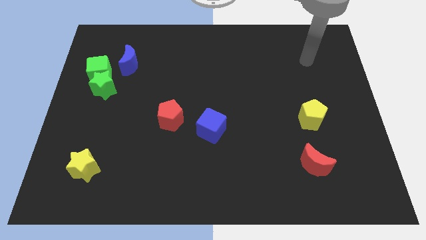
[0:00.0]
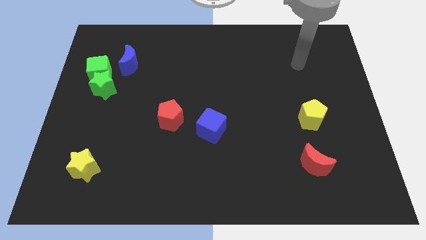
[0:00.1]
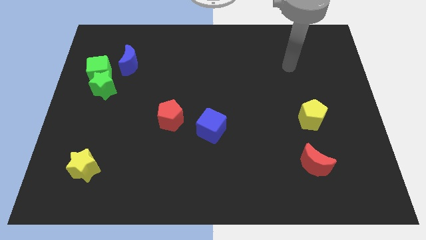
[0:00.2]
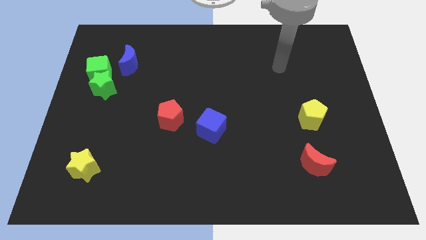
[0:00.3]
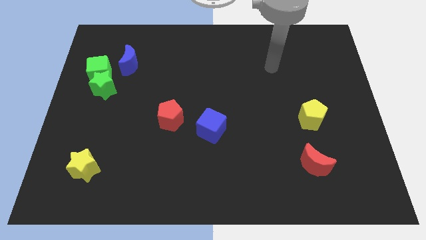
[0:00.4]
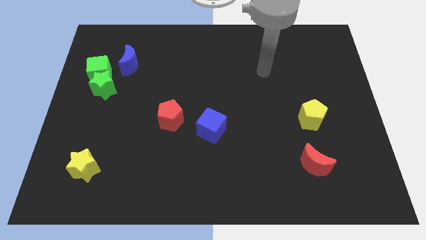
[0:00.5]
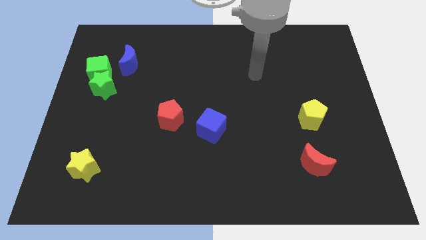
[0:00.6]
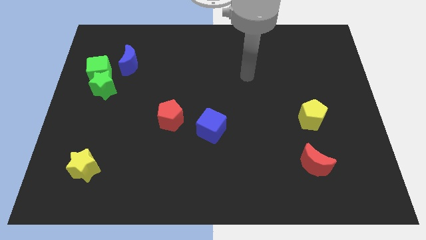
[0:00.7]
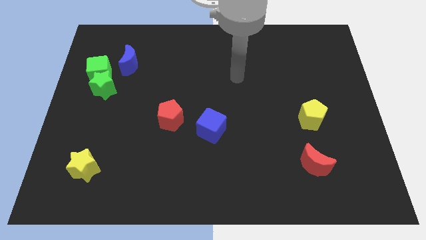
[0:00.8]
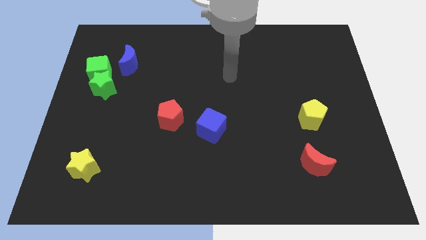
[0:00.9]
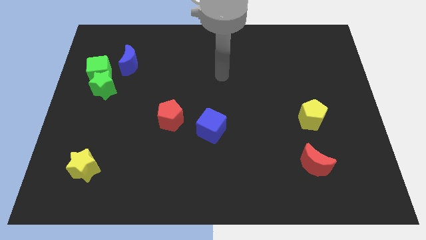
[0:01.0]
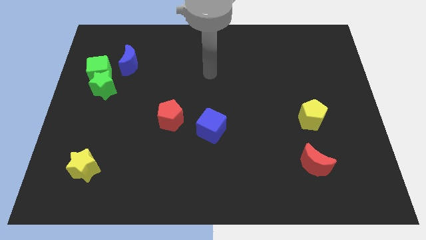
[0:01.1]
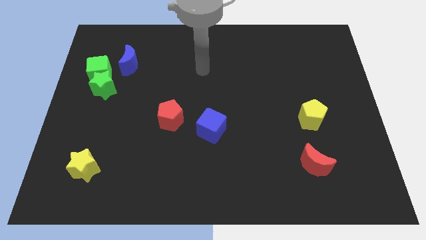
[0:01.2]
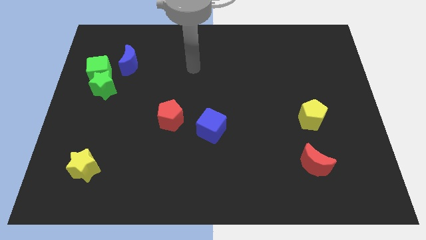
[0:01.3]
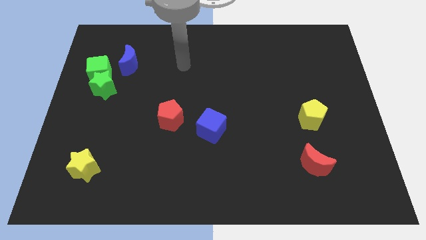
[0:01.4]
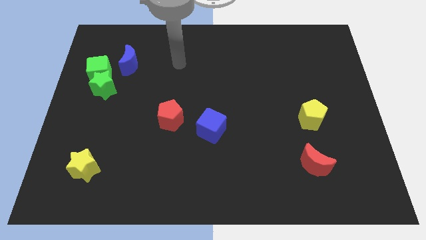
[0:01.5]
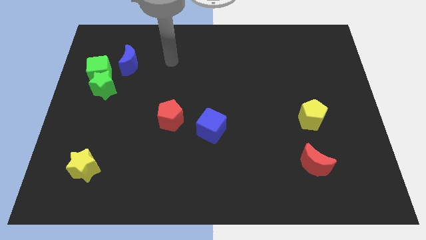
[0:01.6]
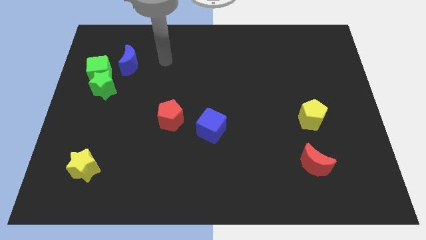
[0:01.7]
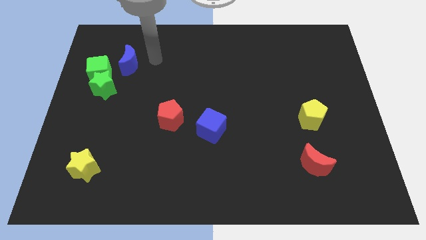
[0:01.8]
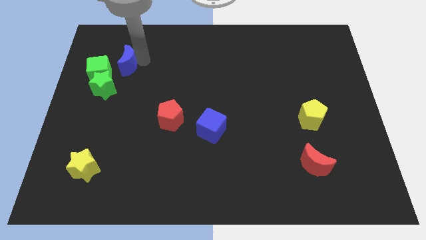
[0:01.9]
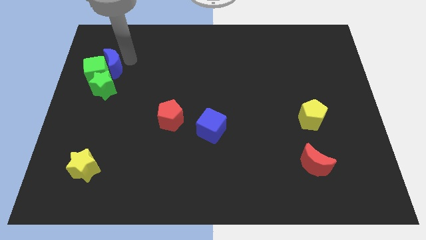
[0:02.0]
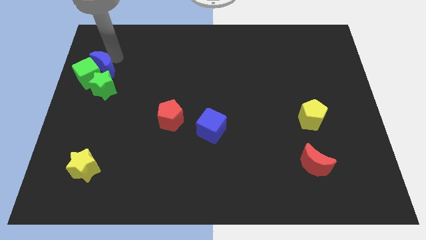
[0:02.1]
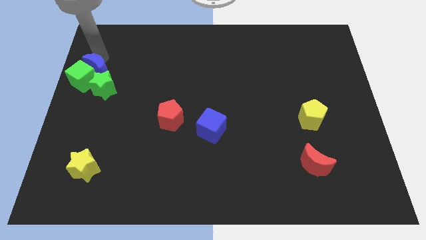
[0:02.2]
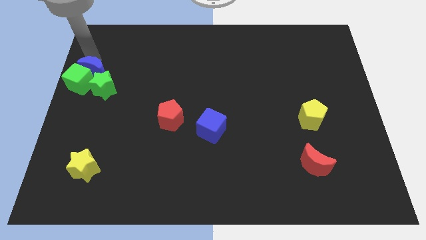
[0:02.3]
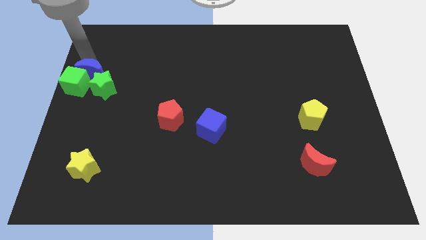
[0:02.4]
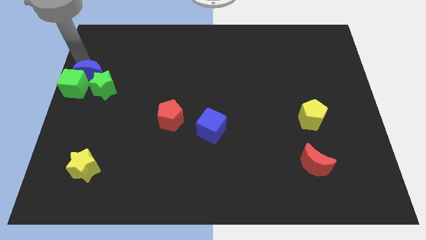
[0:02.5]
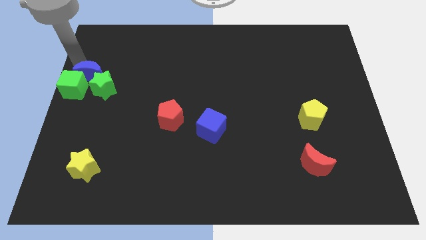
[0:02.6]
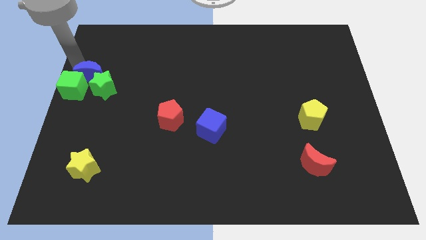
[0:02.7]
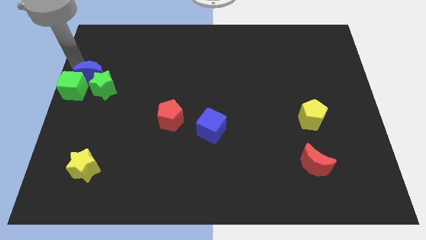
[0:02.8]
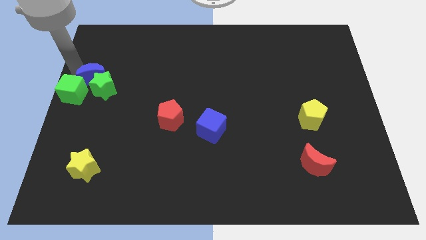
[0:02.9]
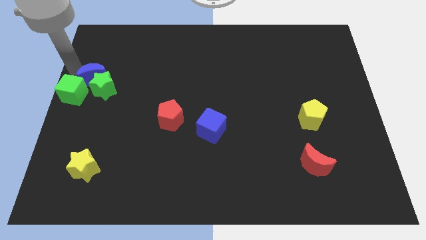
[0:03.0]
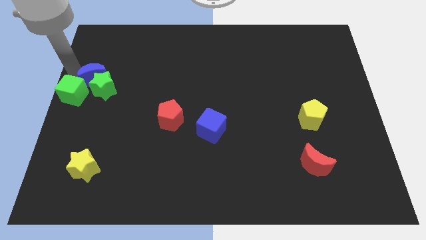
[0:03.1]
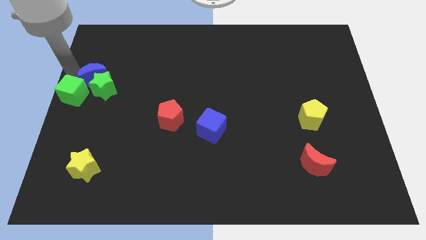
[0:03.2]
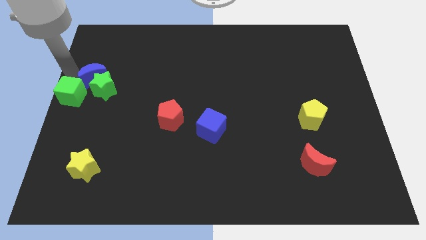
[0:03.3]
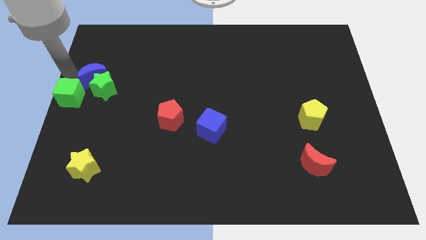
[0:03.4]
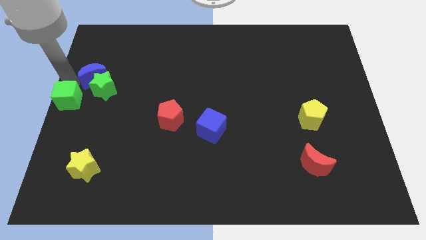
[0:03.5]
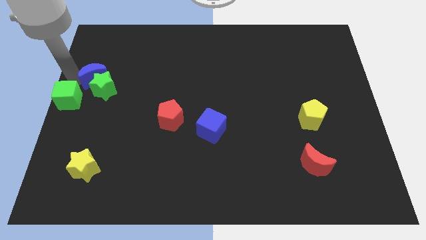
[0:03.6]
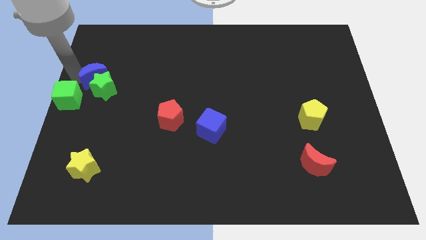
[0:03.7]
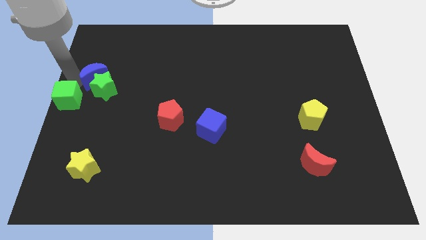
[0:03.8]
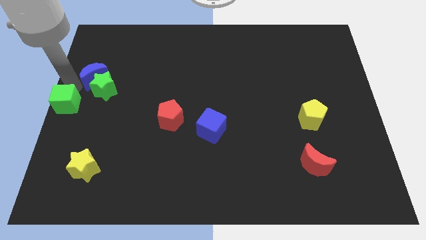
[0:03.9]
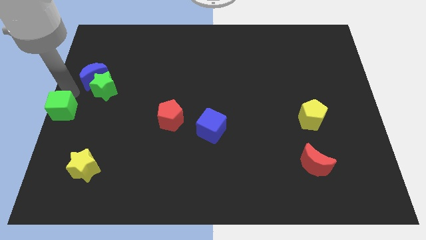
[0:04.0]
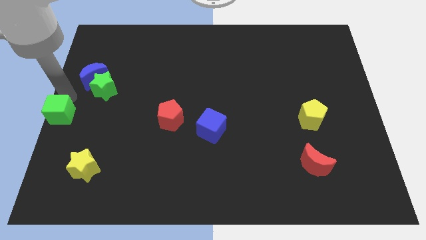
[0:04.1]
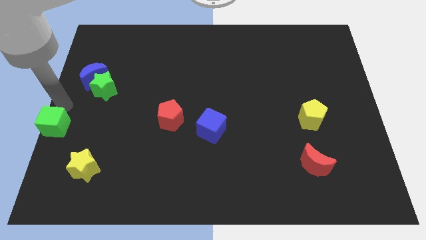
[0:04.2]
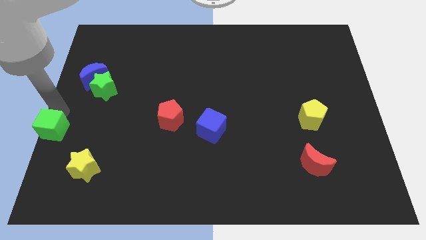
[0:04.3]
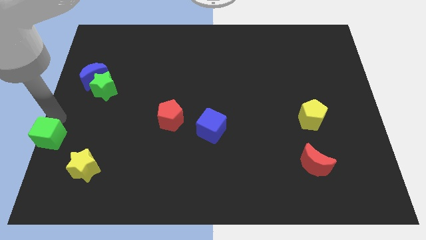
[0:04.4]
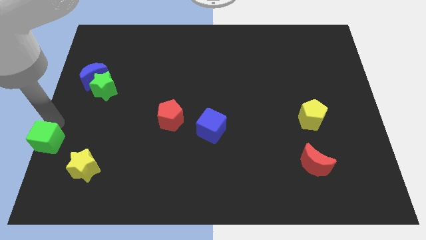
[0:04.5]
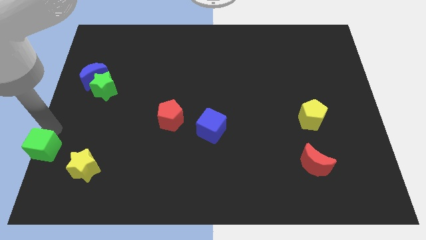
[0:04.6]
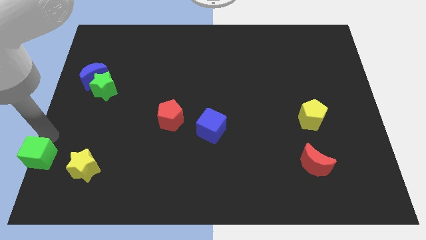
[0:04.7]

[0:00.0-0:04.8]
put the green cube to the lower left corner

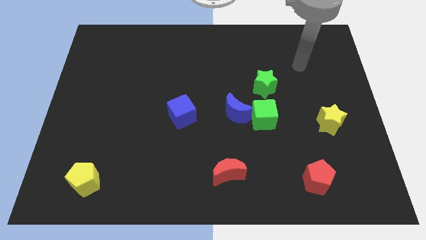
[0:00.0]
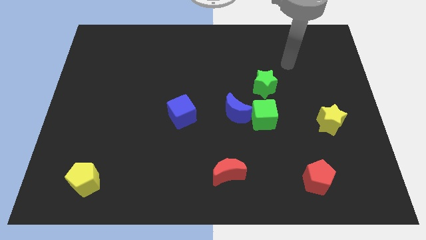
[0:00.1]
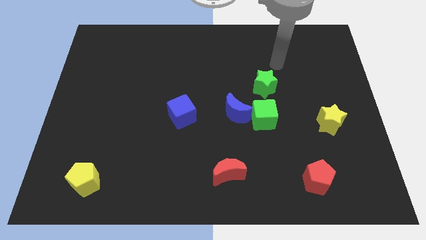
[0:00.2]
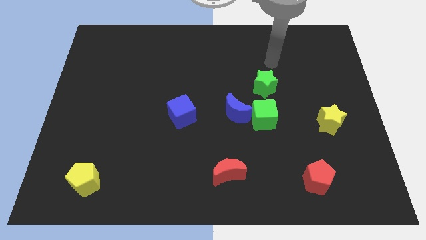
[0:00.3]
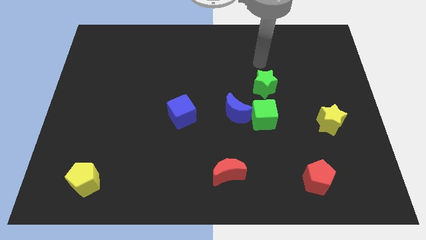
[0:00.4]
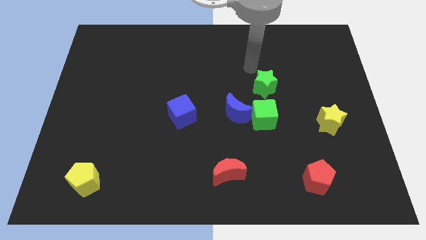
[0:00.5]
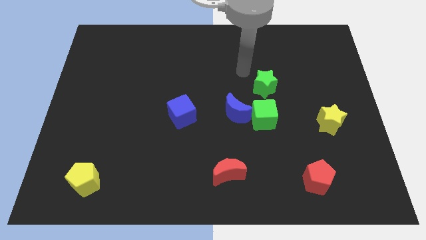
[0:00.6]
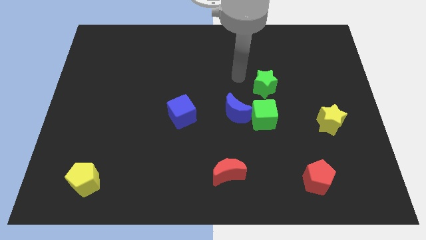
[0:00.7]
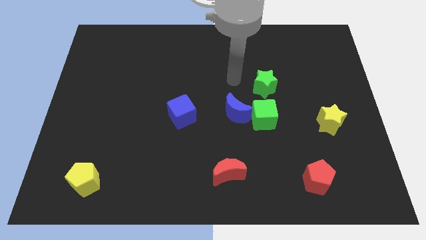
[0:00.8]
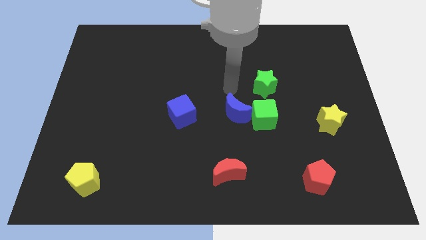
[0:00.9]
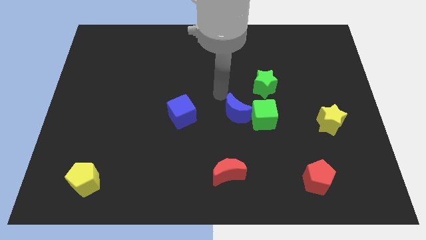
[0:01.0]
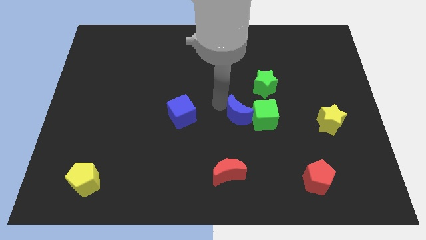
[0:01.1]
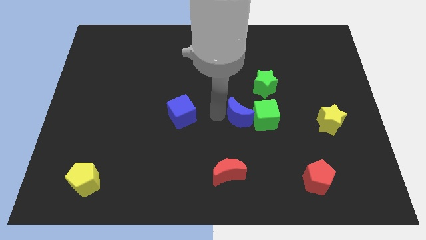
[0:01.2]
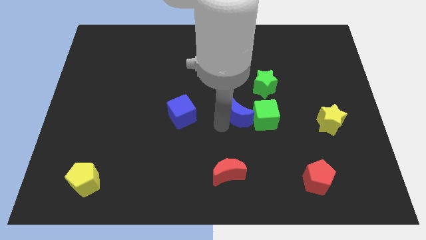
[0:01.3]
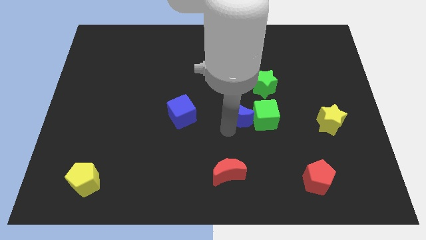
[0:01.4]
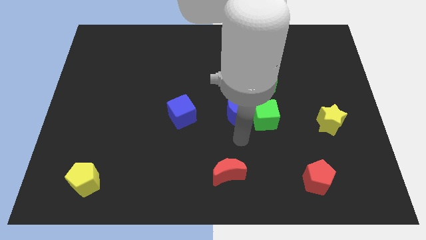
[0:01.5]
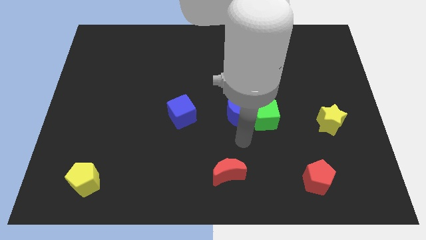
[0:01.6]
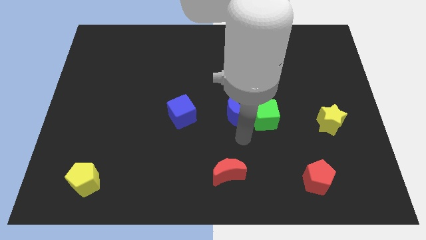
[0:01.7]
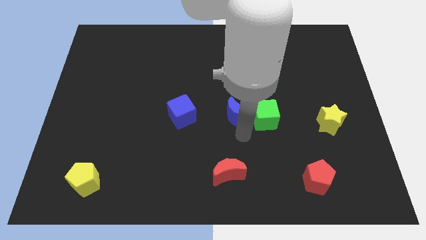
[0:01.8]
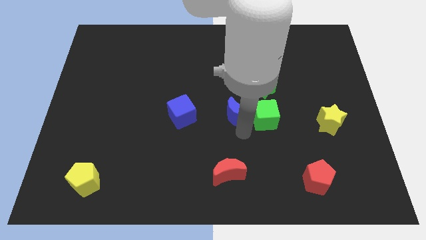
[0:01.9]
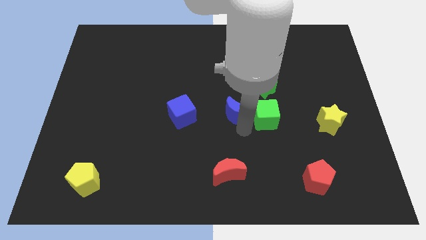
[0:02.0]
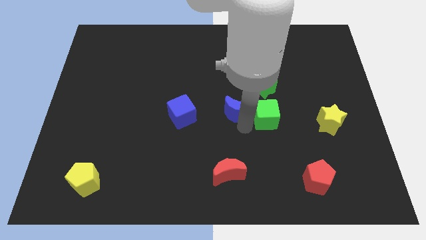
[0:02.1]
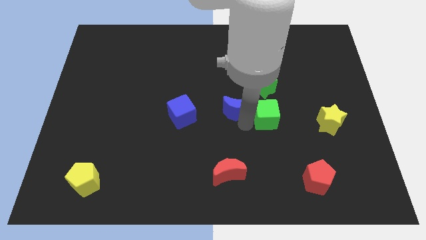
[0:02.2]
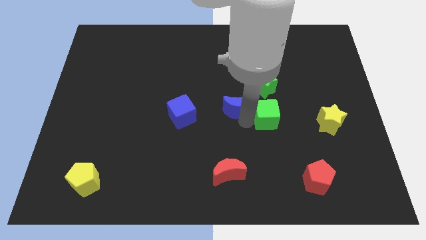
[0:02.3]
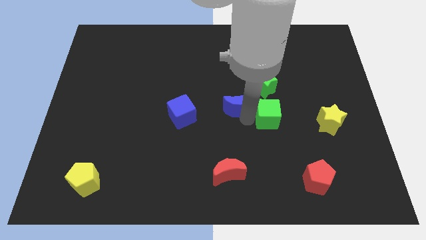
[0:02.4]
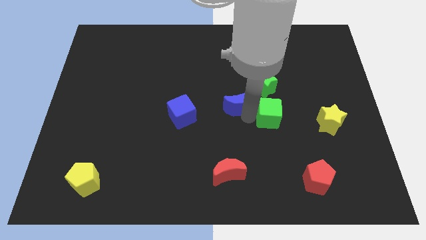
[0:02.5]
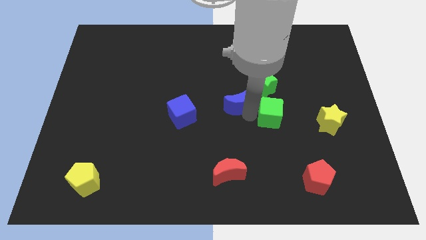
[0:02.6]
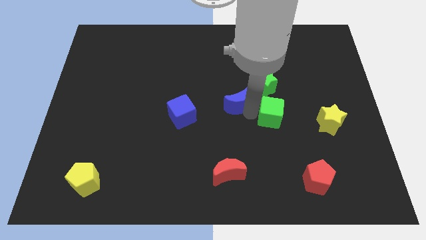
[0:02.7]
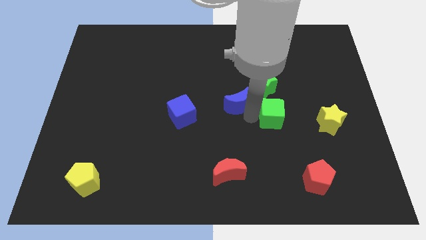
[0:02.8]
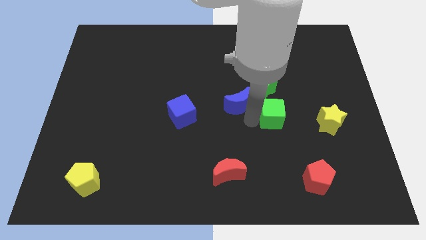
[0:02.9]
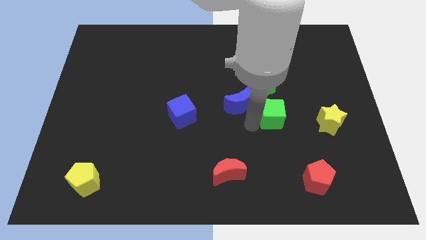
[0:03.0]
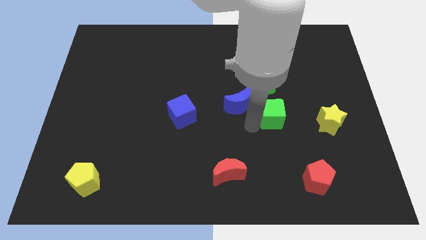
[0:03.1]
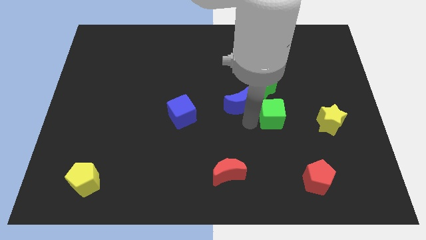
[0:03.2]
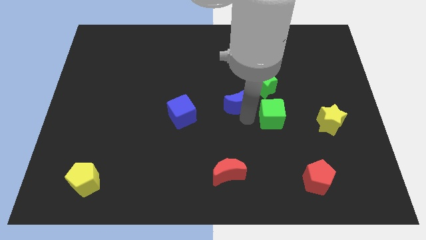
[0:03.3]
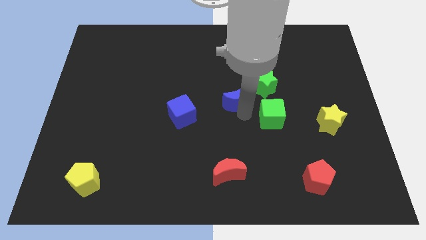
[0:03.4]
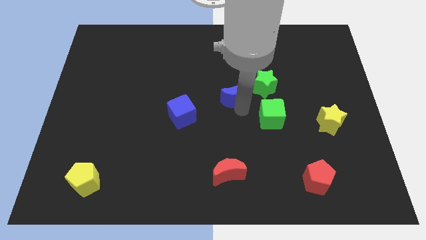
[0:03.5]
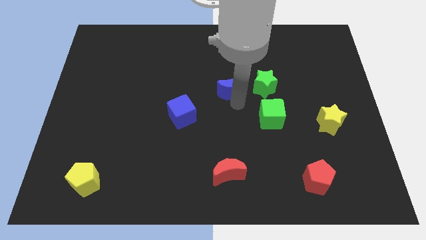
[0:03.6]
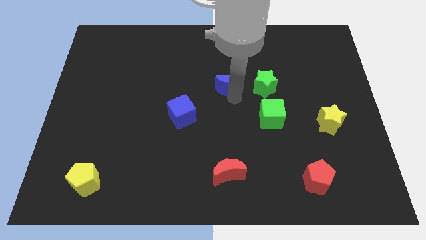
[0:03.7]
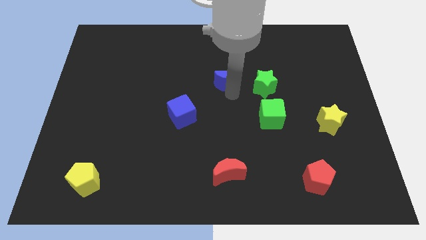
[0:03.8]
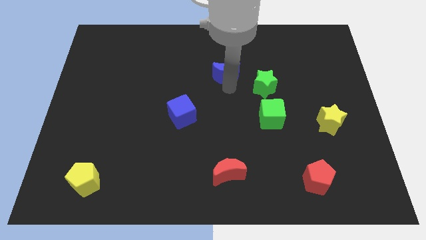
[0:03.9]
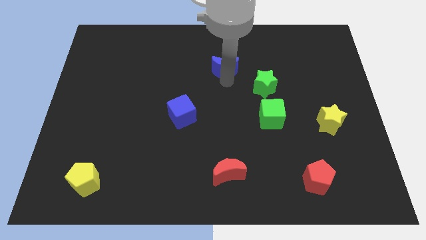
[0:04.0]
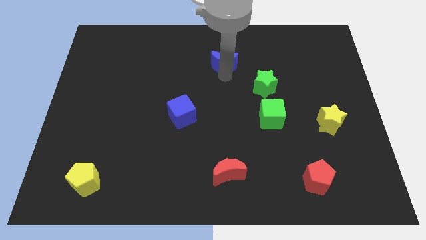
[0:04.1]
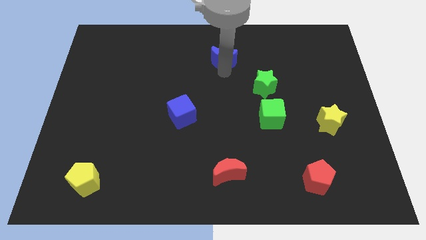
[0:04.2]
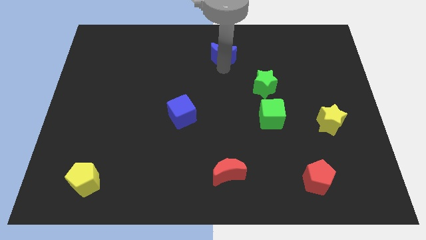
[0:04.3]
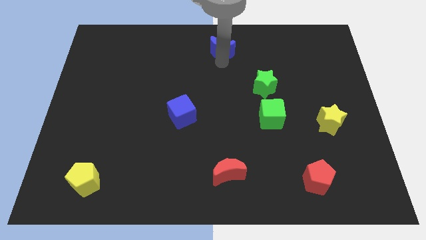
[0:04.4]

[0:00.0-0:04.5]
push the blue moon to the top side
